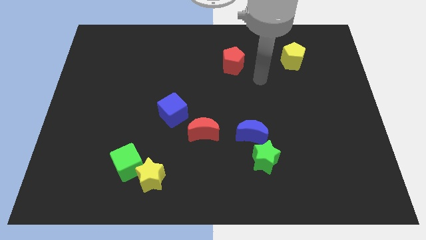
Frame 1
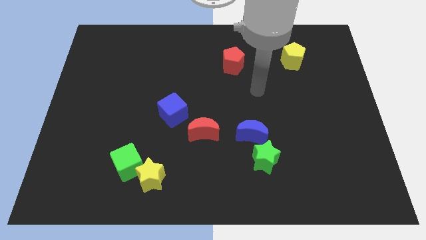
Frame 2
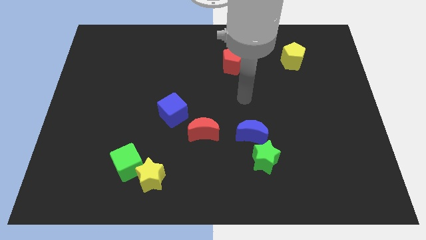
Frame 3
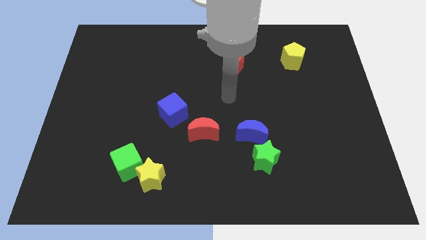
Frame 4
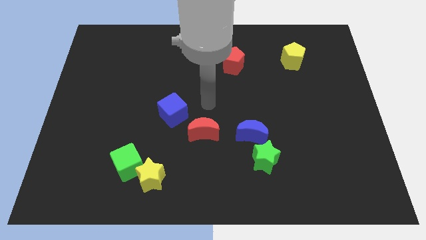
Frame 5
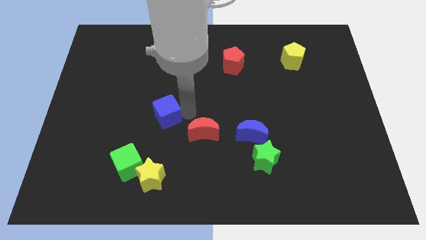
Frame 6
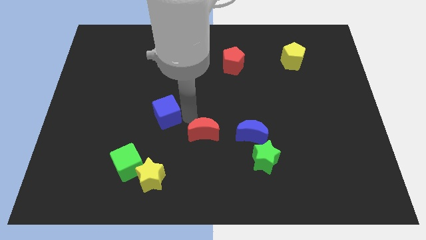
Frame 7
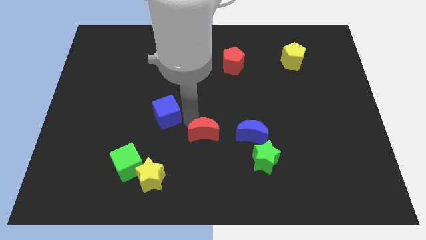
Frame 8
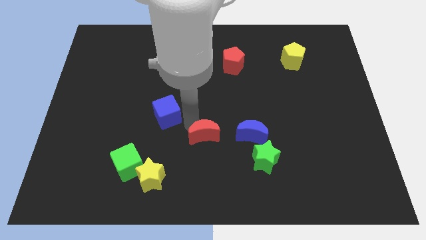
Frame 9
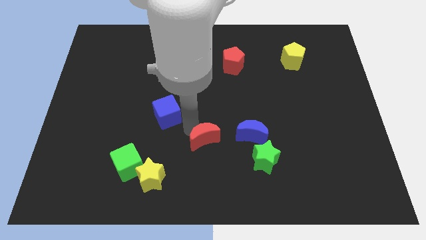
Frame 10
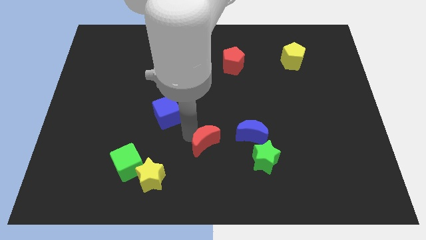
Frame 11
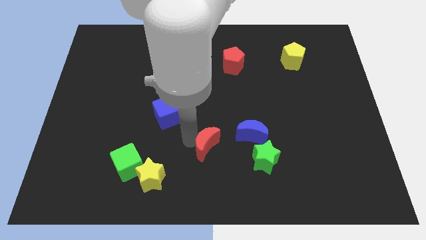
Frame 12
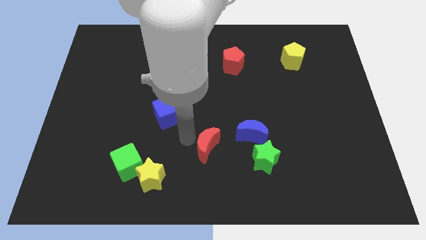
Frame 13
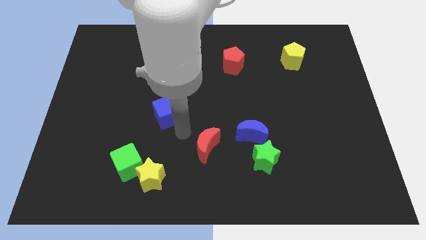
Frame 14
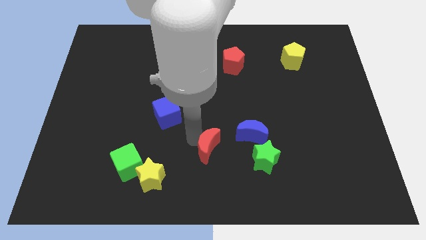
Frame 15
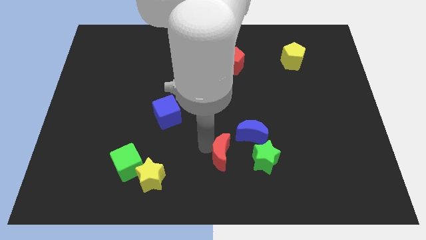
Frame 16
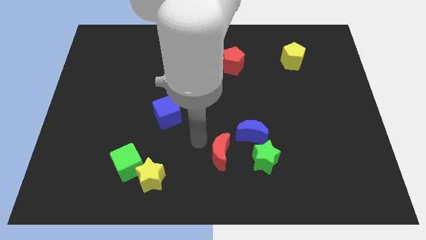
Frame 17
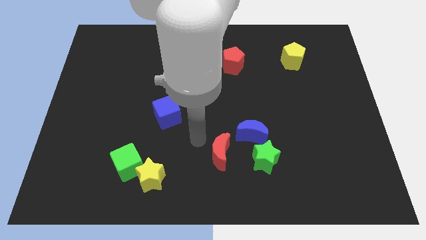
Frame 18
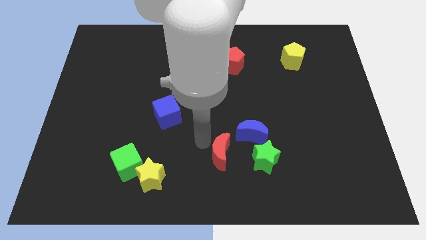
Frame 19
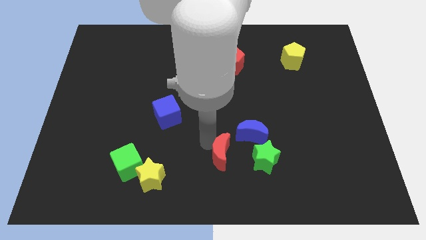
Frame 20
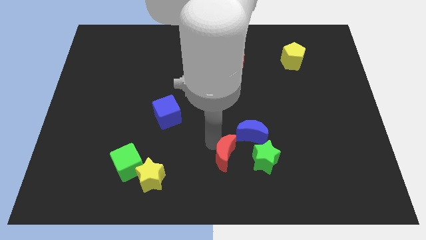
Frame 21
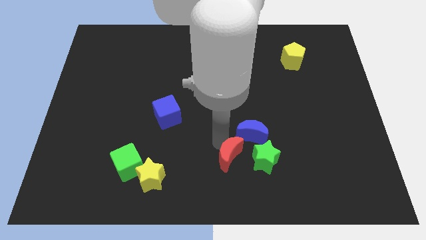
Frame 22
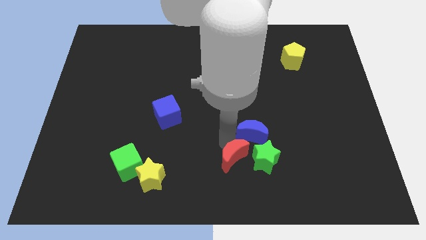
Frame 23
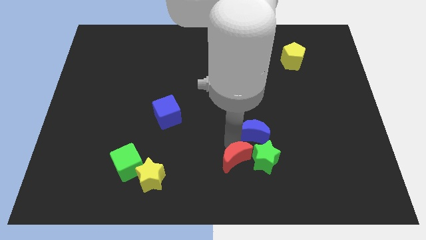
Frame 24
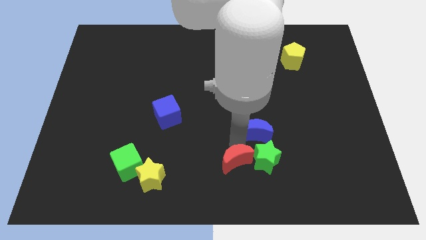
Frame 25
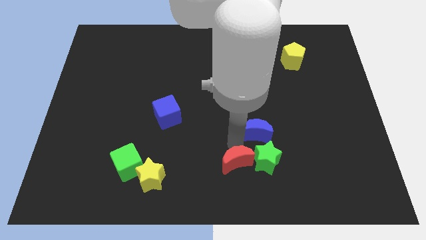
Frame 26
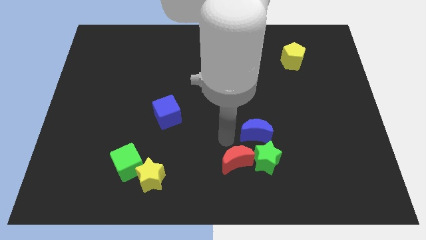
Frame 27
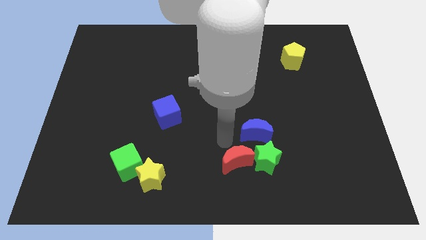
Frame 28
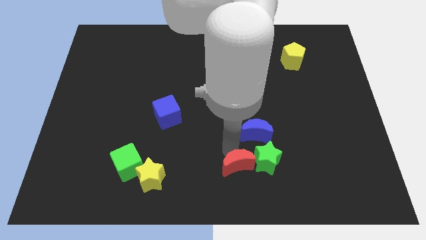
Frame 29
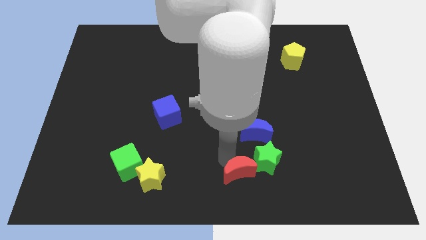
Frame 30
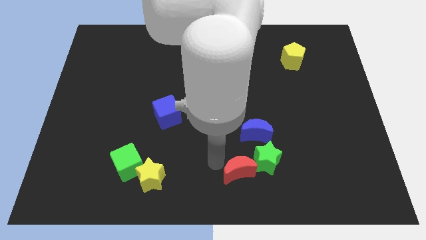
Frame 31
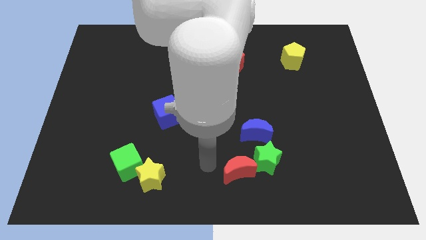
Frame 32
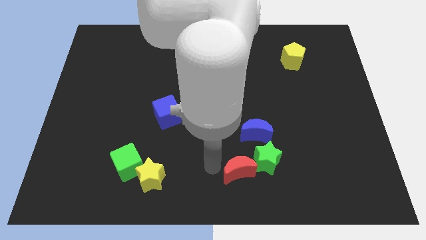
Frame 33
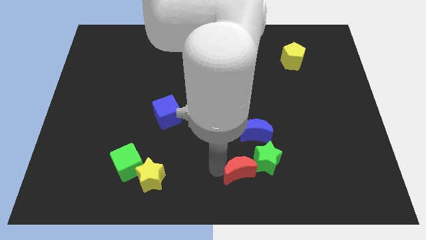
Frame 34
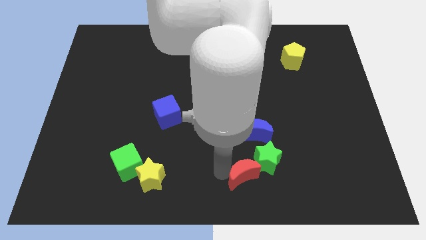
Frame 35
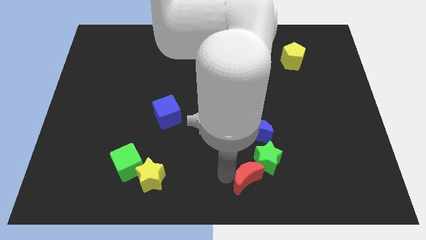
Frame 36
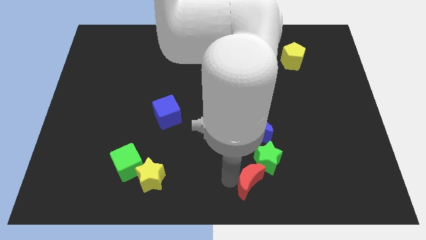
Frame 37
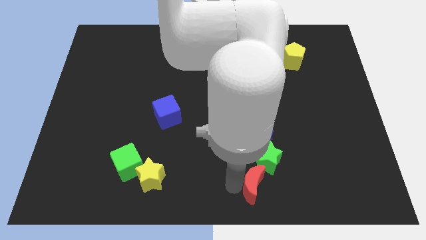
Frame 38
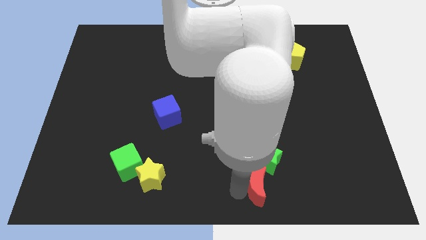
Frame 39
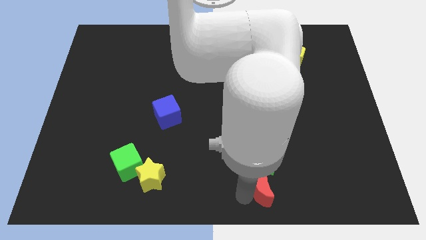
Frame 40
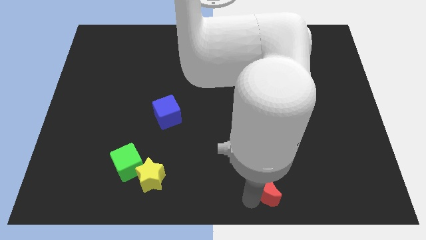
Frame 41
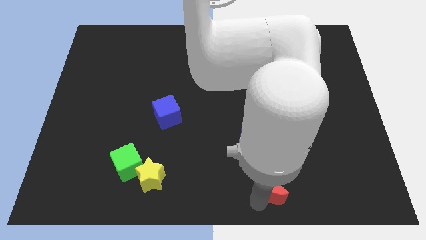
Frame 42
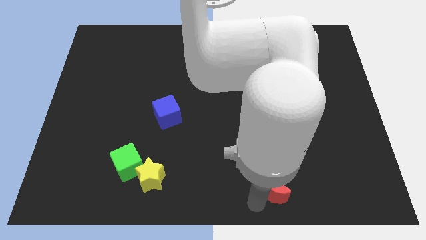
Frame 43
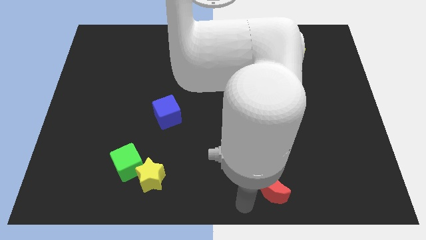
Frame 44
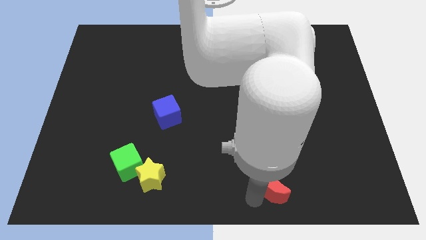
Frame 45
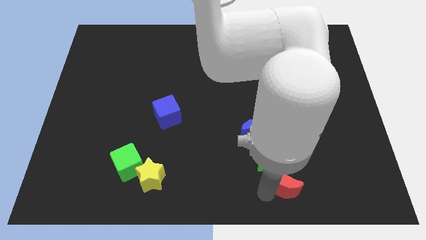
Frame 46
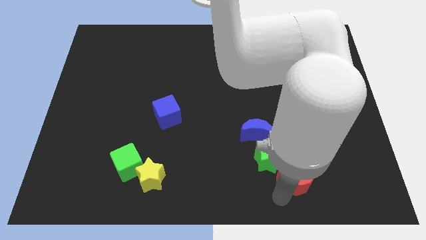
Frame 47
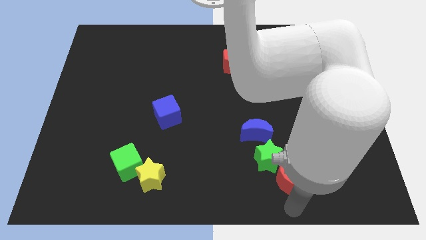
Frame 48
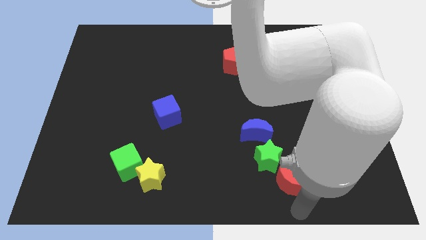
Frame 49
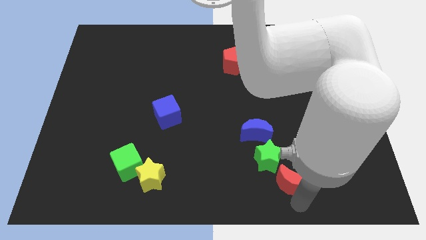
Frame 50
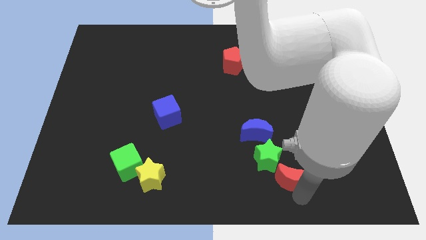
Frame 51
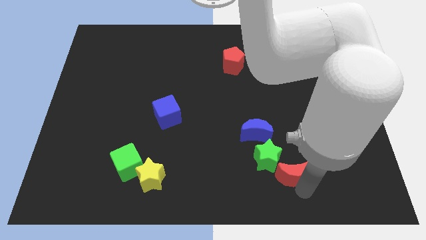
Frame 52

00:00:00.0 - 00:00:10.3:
push the red moon to the bottom right of the blue moon

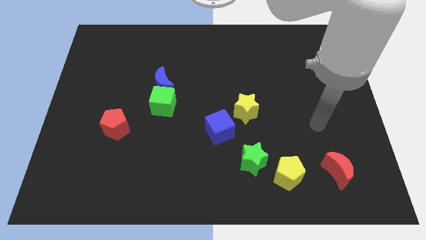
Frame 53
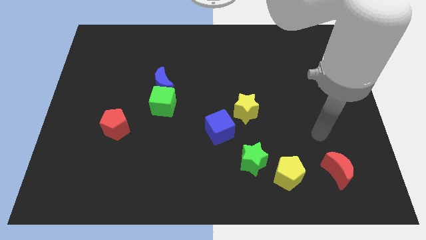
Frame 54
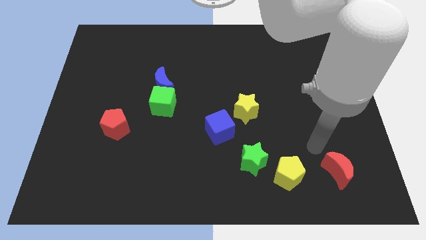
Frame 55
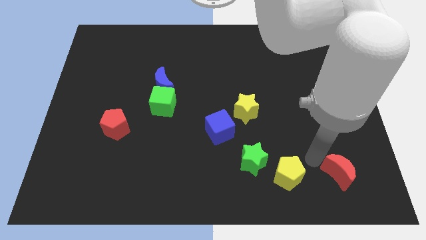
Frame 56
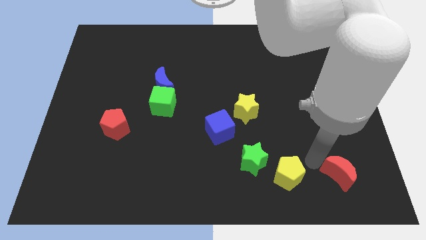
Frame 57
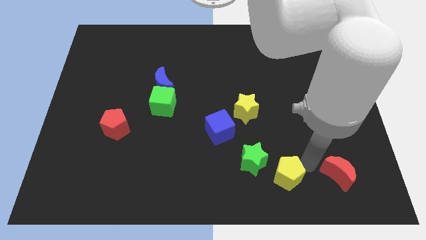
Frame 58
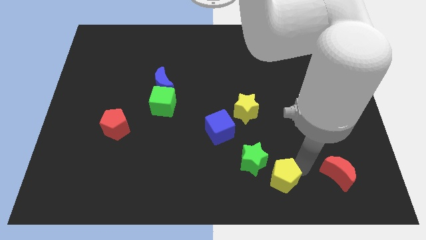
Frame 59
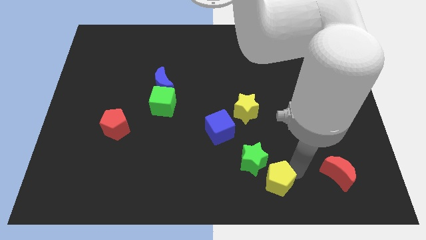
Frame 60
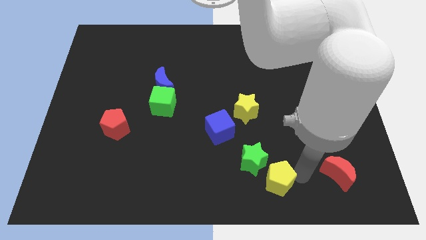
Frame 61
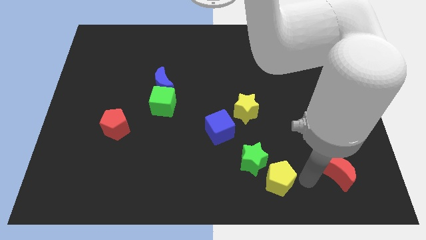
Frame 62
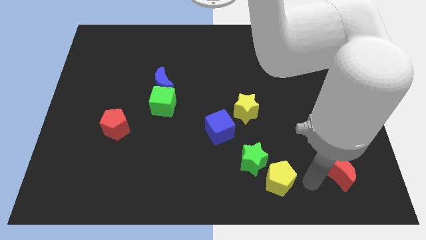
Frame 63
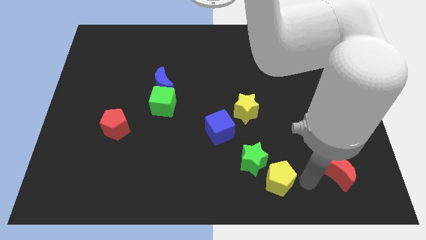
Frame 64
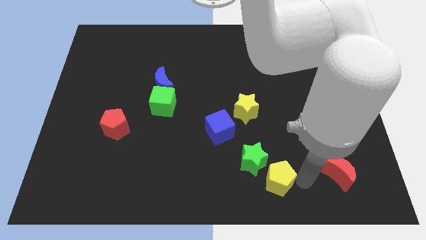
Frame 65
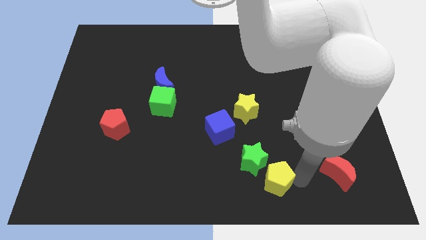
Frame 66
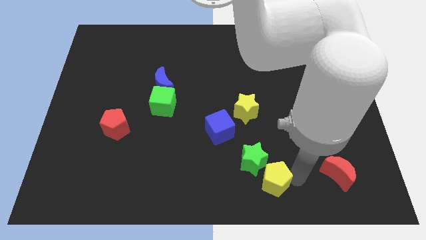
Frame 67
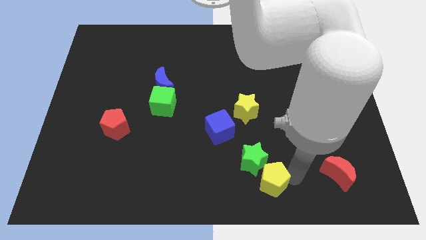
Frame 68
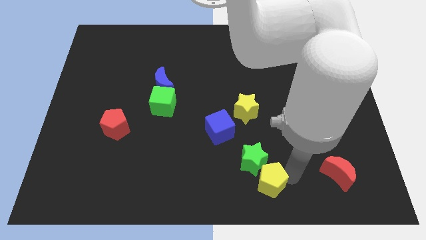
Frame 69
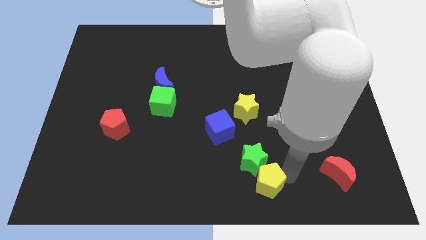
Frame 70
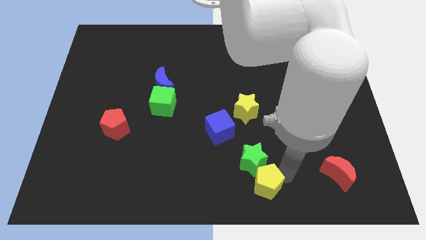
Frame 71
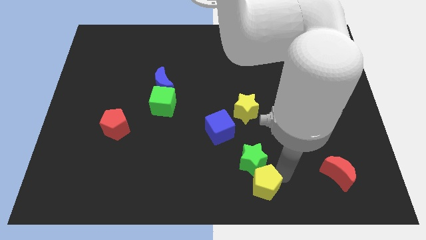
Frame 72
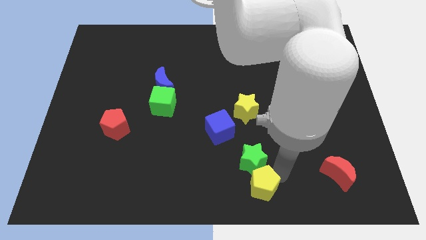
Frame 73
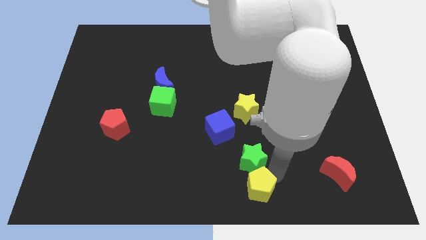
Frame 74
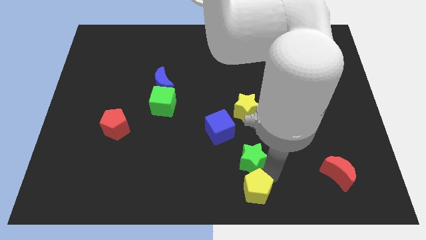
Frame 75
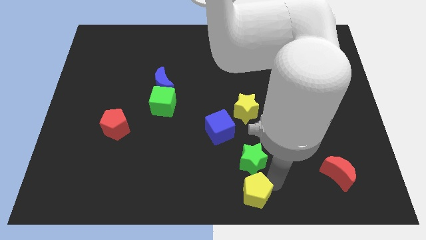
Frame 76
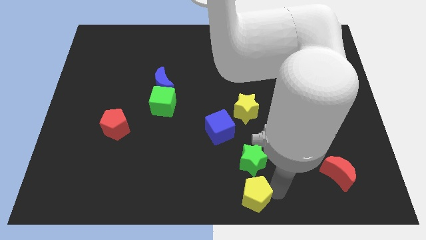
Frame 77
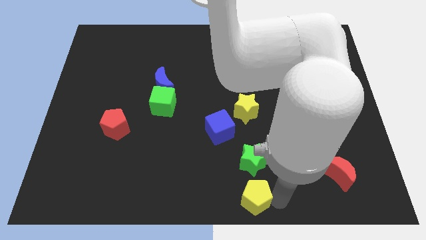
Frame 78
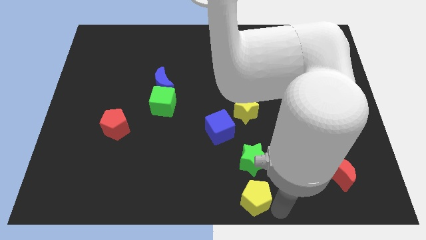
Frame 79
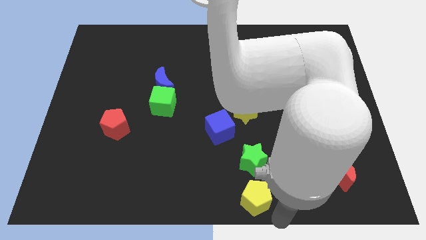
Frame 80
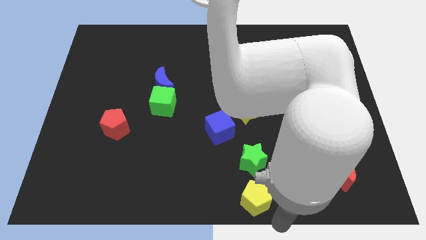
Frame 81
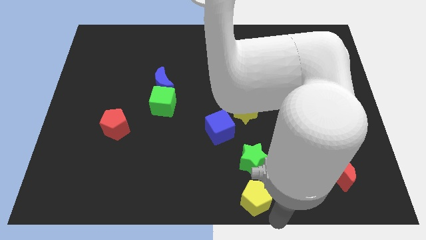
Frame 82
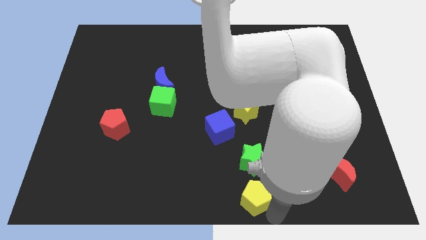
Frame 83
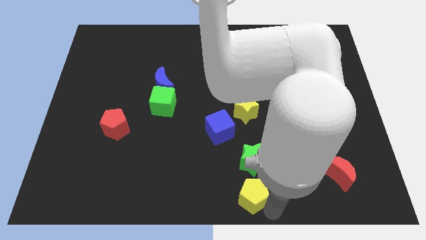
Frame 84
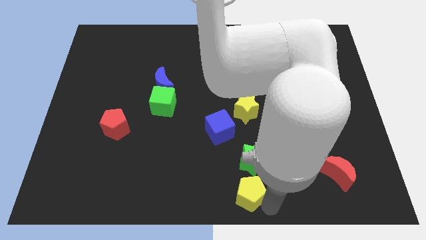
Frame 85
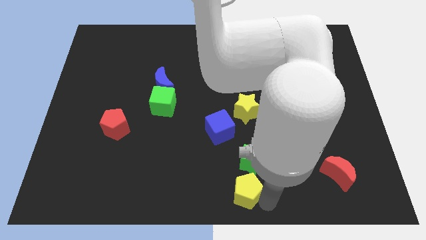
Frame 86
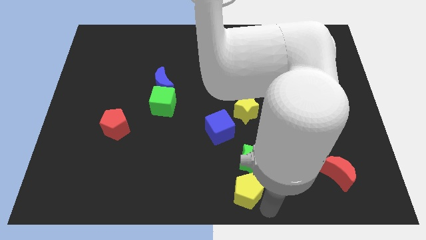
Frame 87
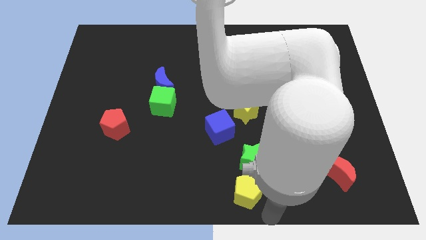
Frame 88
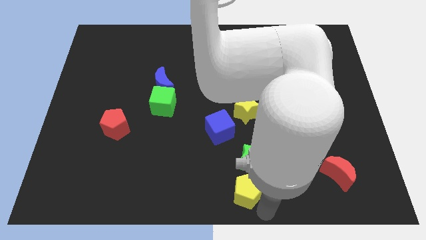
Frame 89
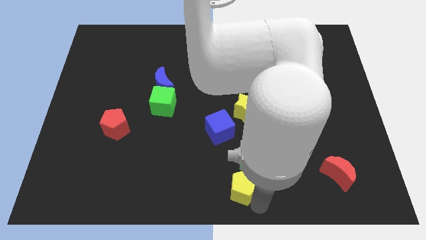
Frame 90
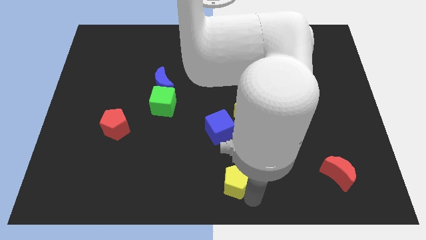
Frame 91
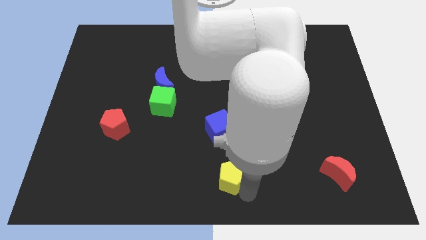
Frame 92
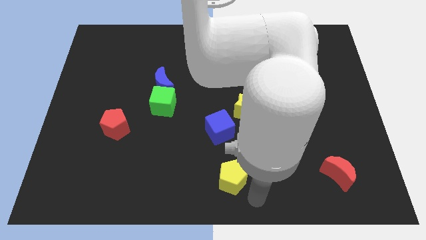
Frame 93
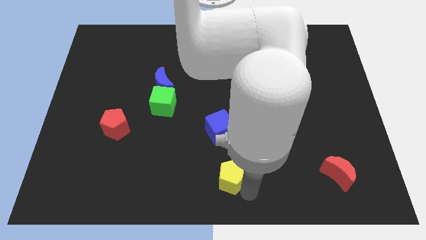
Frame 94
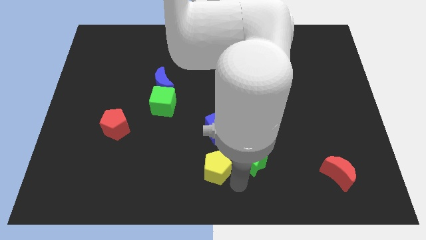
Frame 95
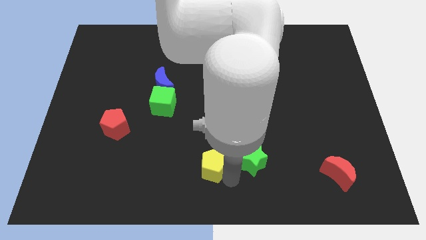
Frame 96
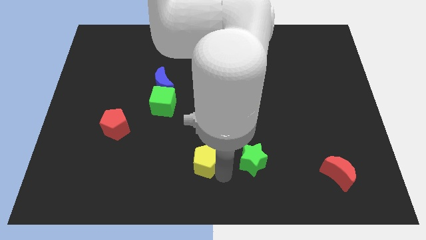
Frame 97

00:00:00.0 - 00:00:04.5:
move the yellow pentagon to the bottom left of the blue cube
